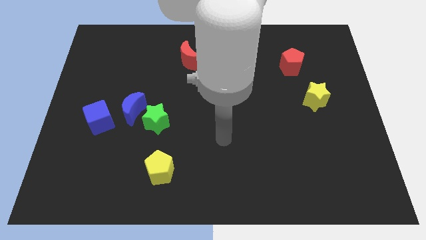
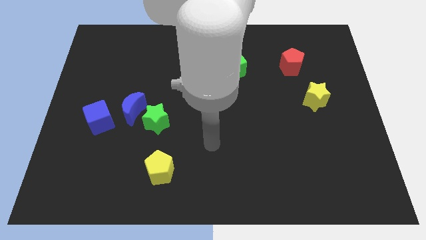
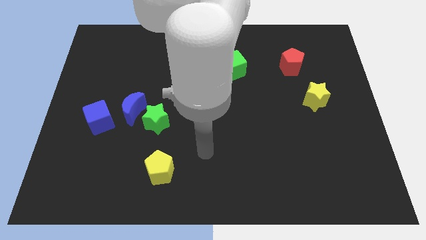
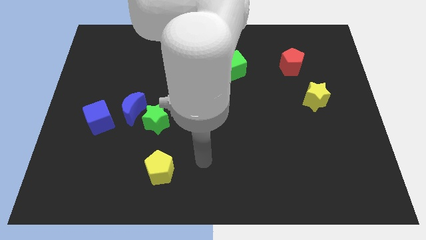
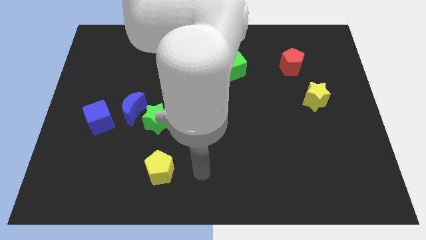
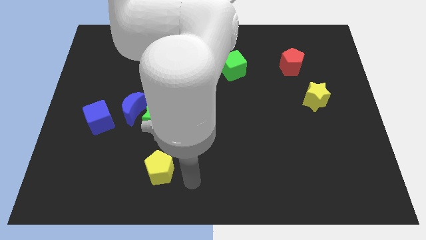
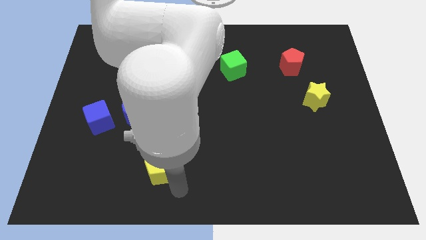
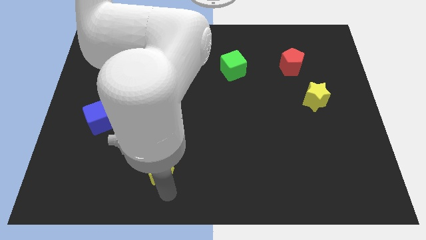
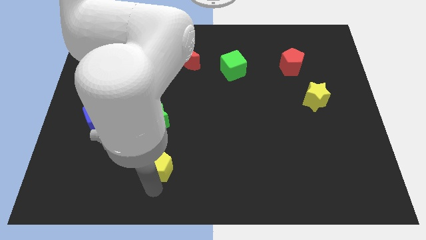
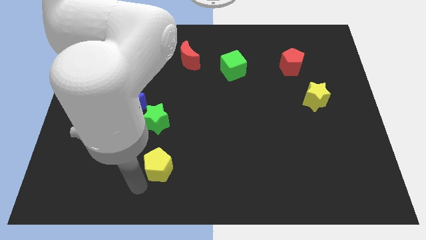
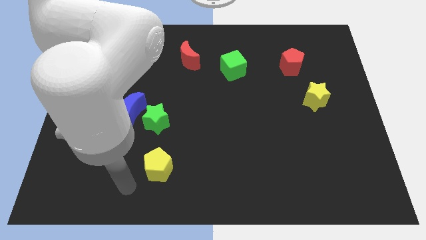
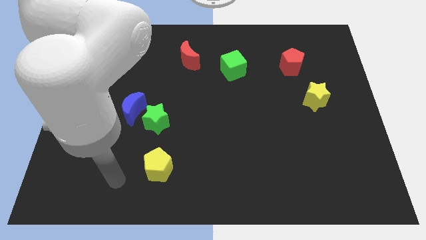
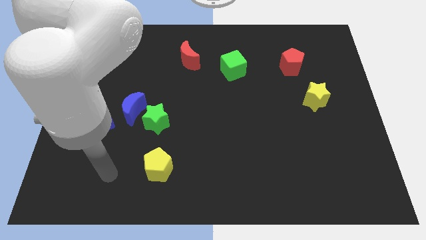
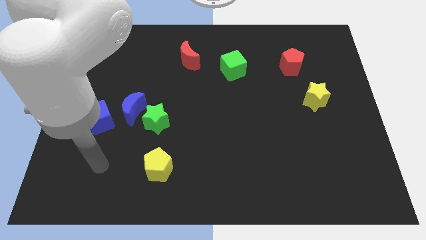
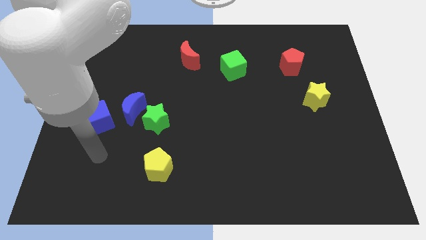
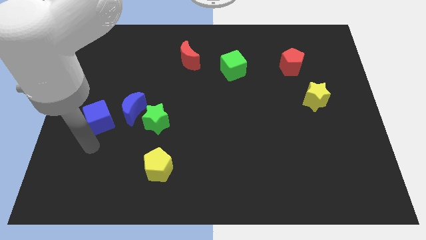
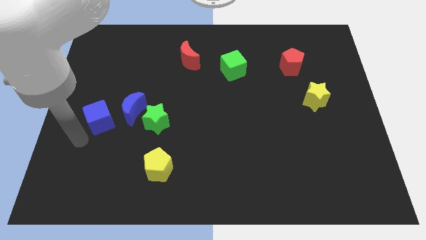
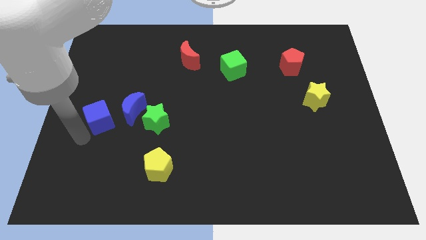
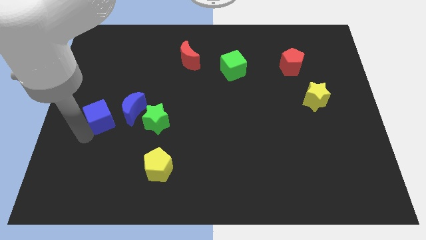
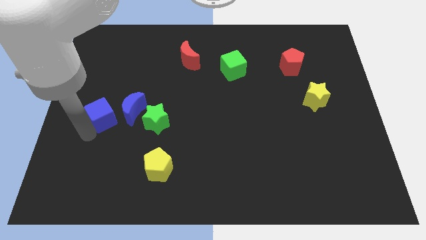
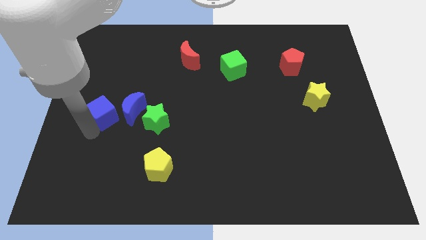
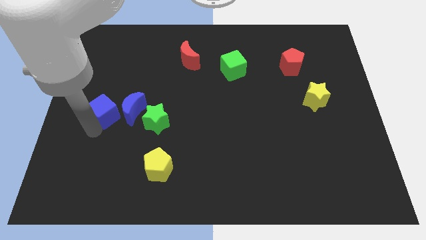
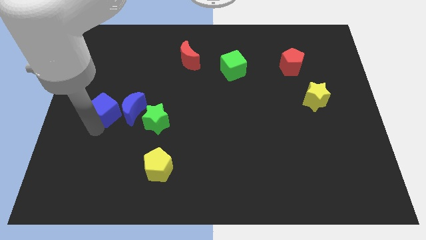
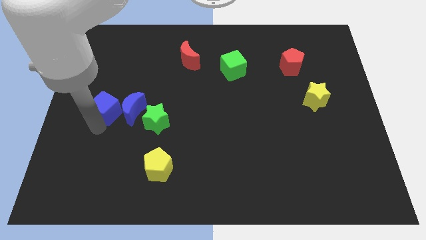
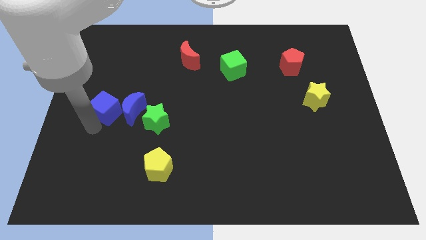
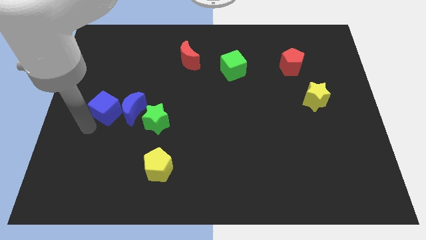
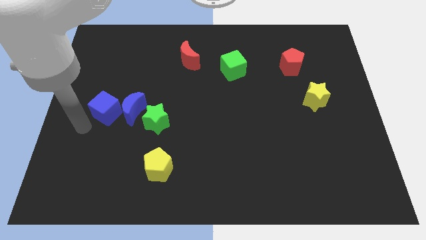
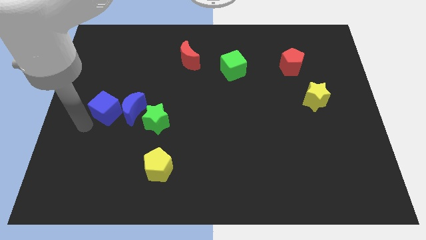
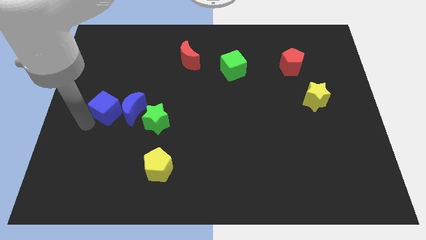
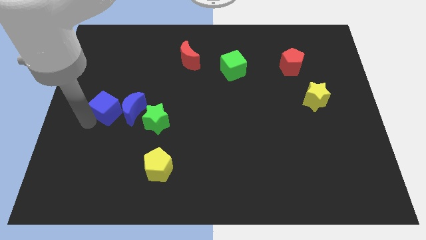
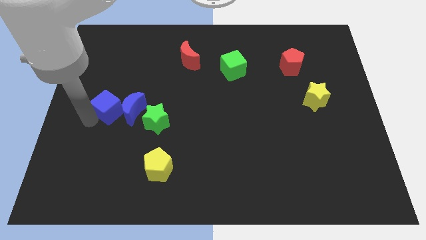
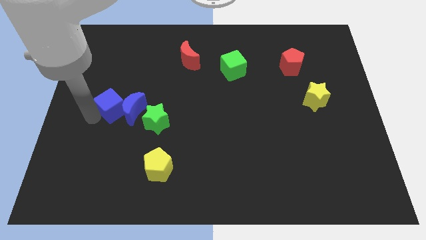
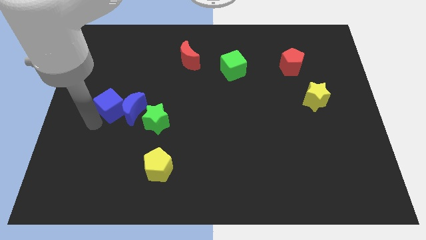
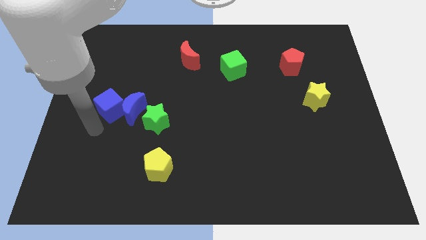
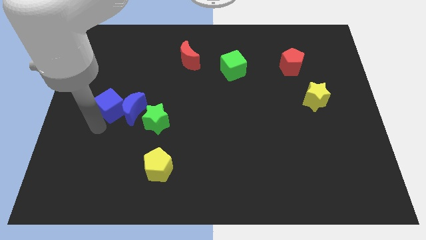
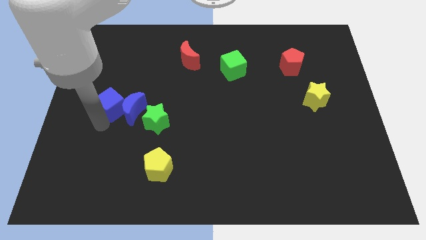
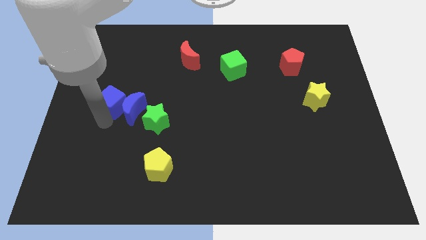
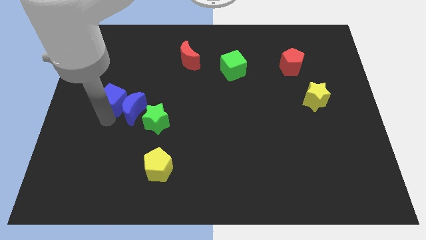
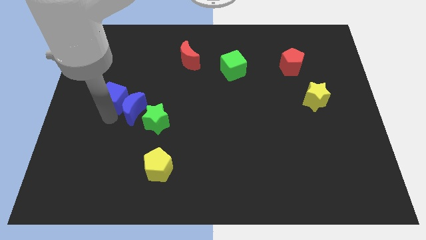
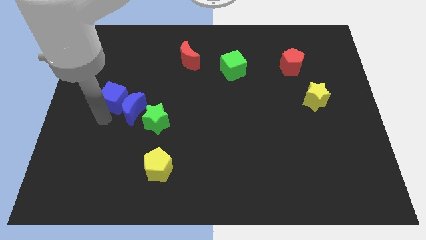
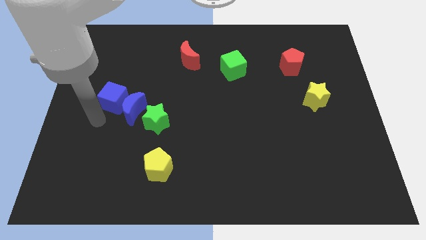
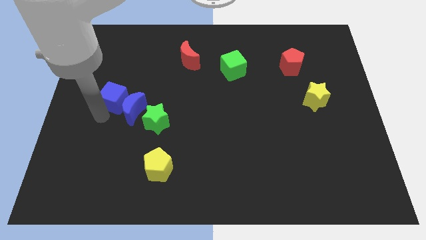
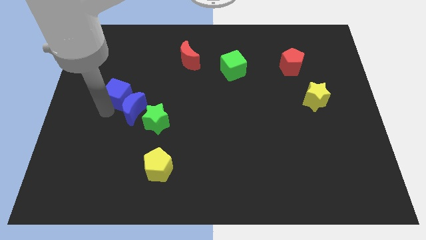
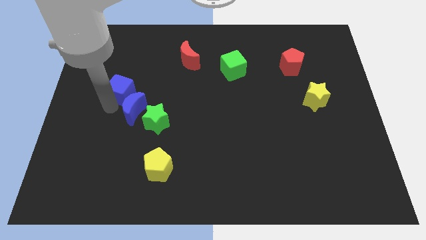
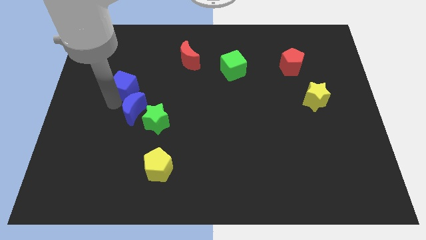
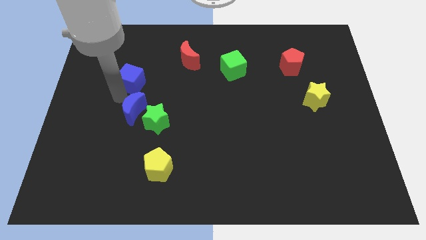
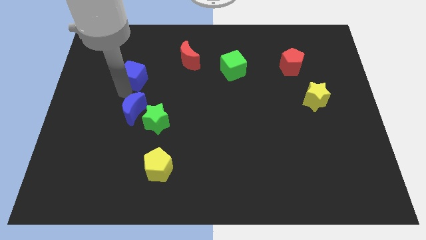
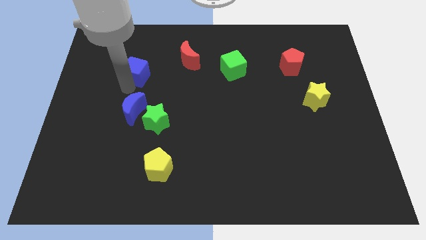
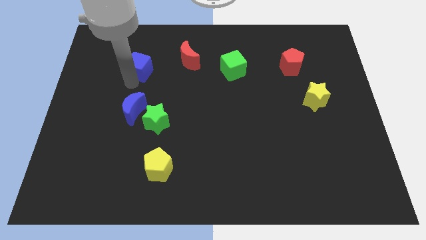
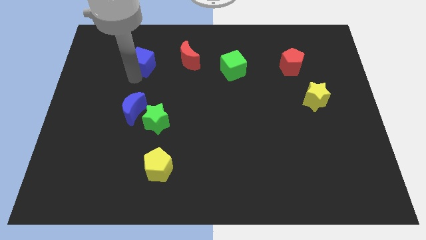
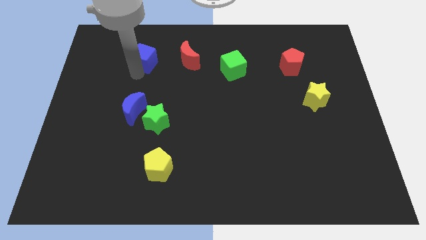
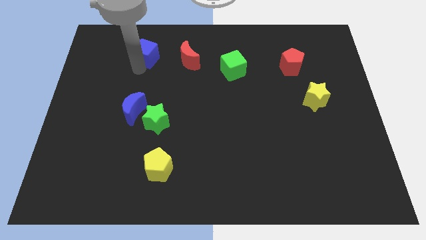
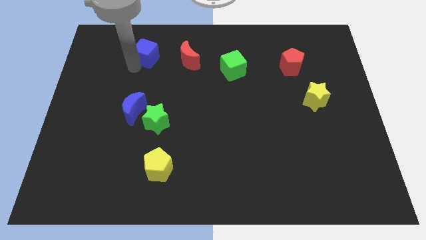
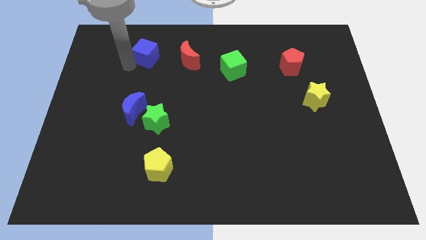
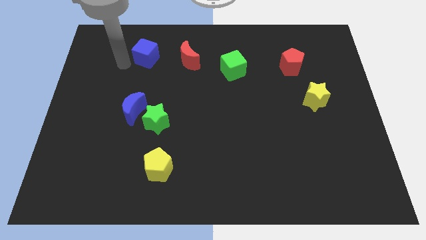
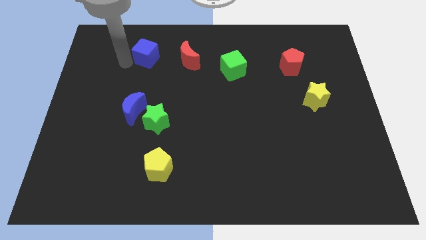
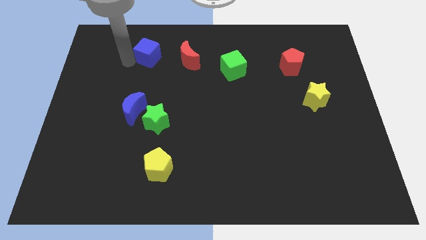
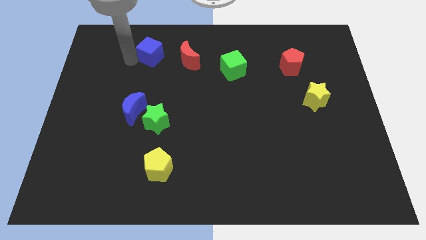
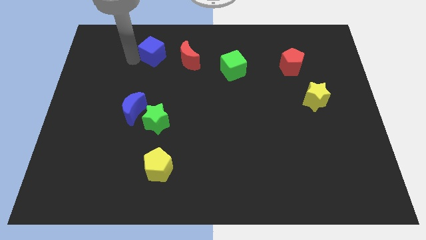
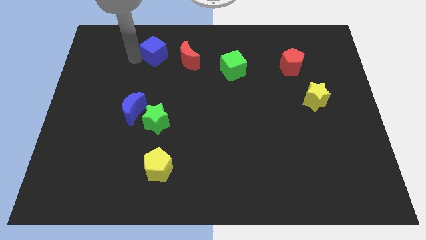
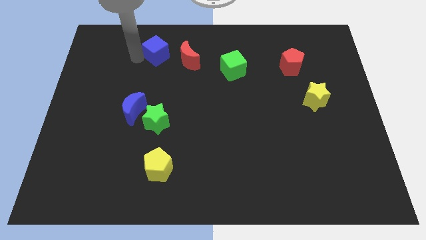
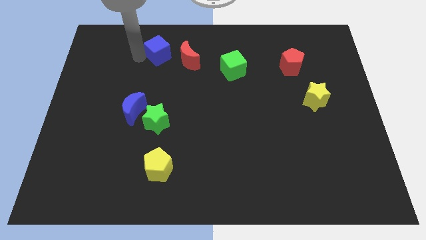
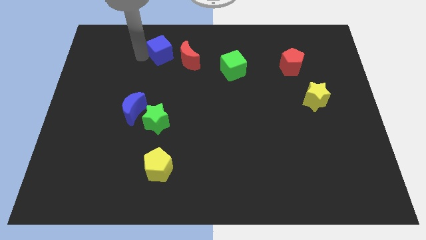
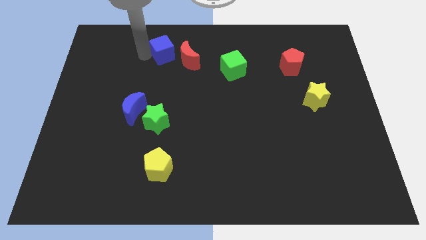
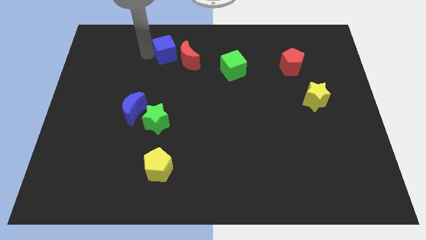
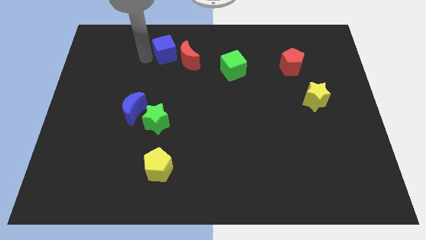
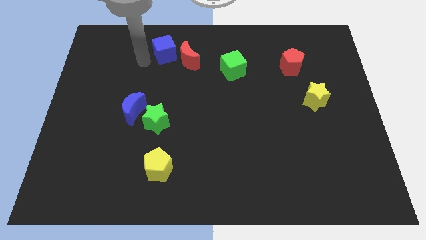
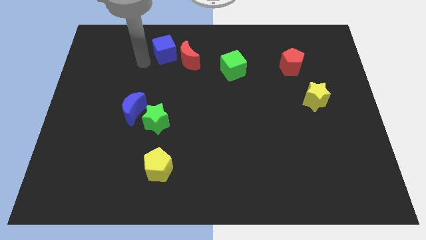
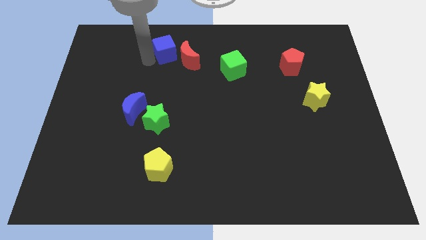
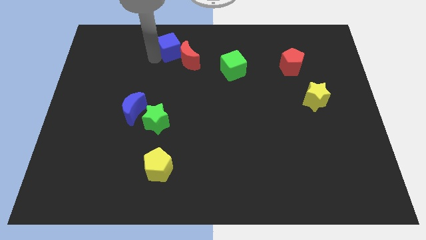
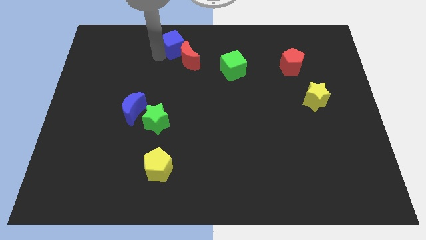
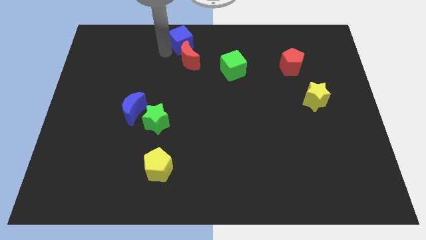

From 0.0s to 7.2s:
slide the blue cube to the top side
